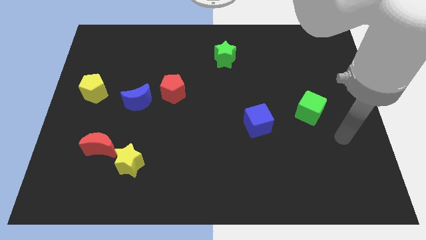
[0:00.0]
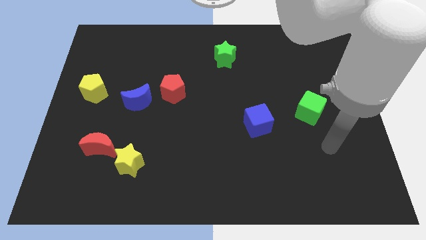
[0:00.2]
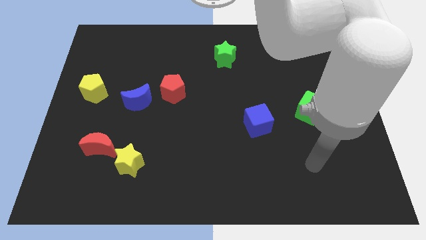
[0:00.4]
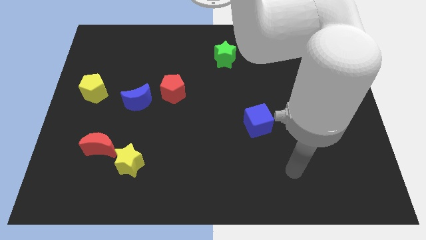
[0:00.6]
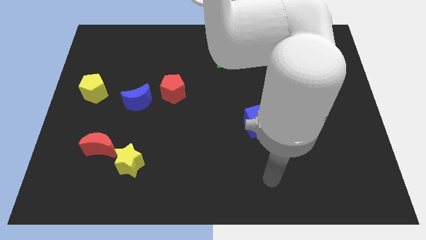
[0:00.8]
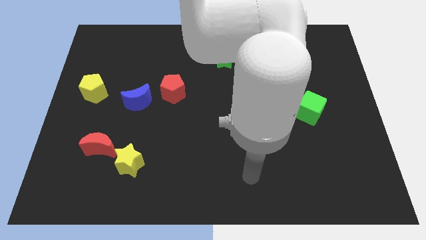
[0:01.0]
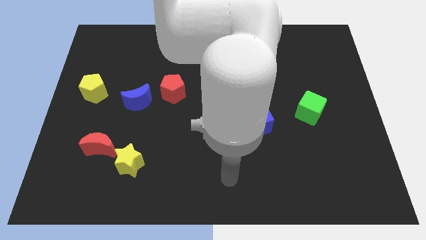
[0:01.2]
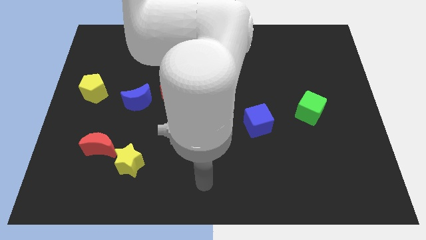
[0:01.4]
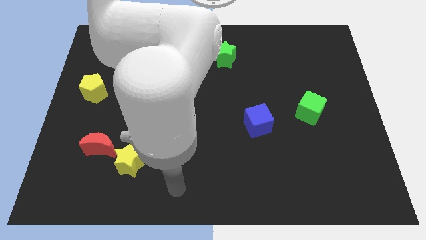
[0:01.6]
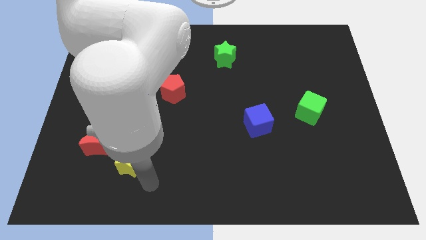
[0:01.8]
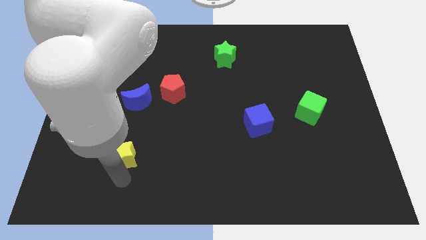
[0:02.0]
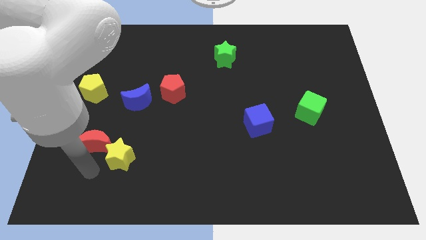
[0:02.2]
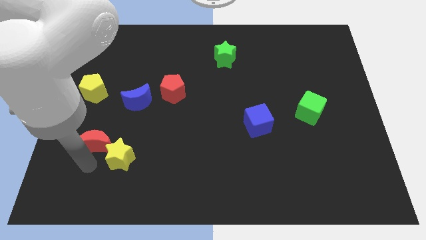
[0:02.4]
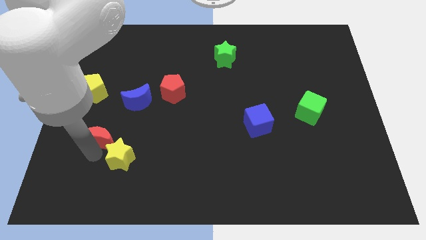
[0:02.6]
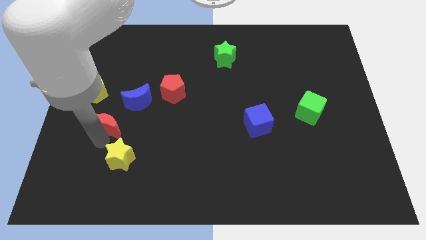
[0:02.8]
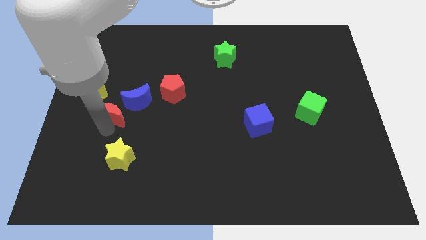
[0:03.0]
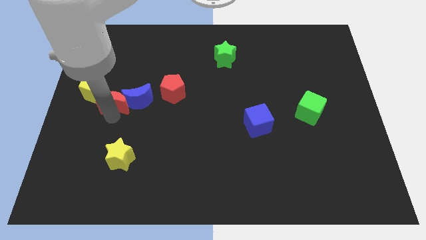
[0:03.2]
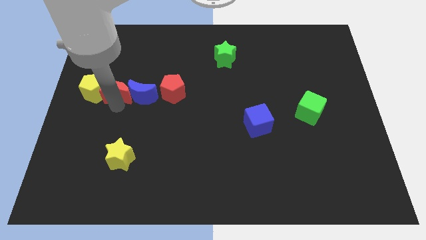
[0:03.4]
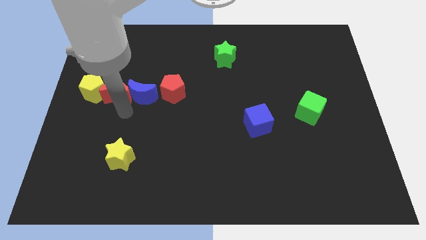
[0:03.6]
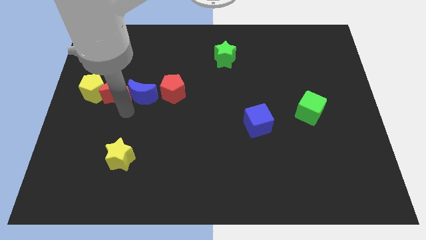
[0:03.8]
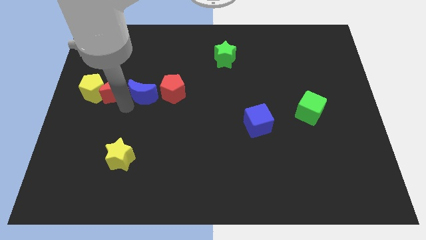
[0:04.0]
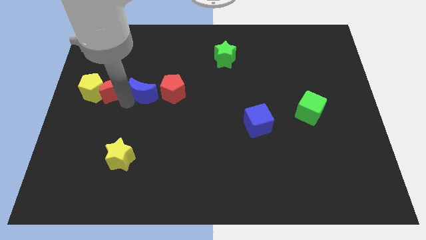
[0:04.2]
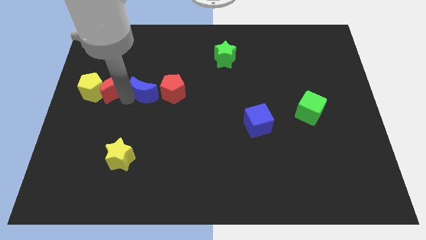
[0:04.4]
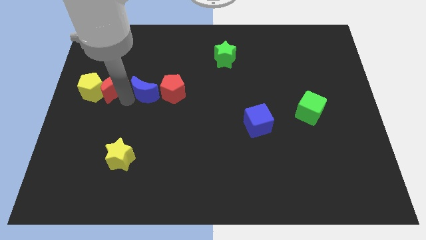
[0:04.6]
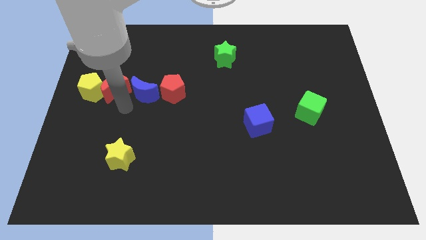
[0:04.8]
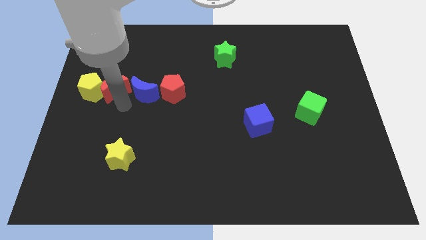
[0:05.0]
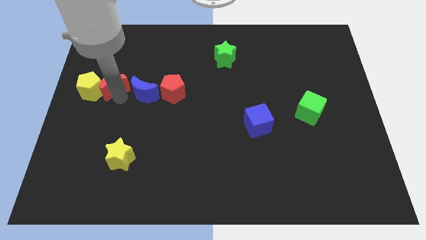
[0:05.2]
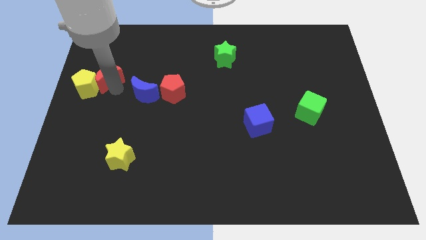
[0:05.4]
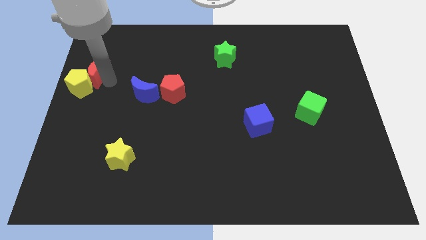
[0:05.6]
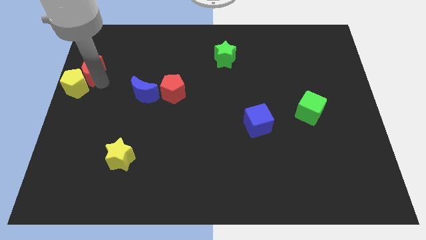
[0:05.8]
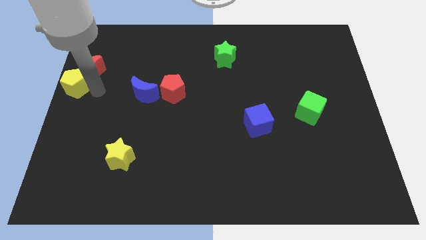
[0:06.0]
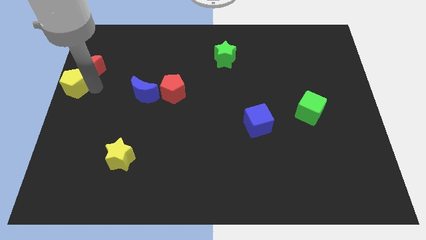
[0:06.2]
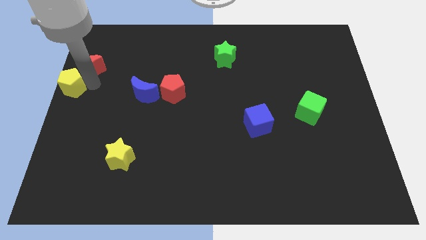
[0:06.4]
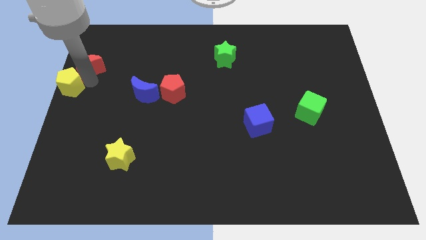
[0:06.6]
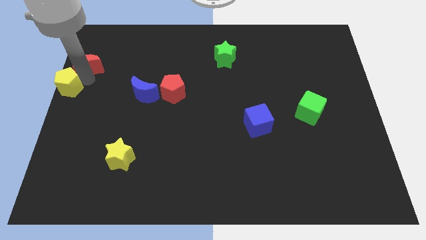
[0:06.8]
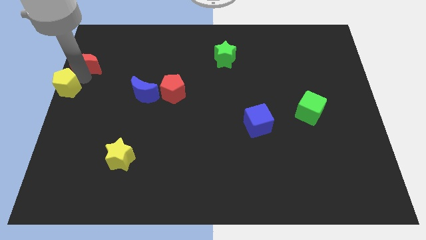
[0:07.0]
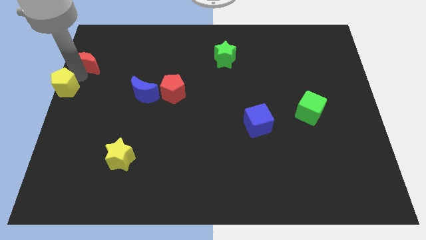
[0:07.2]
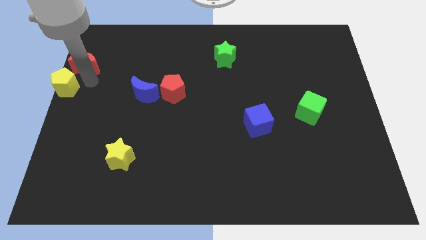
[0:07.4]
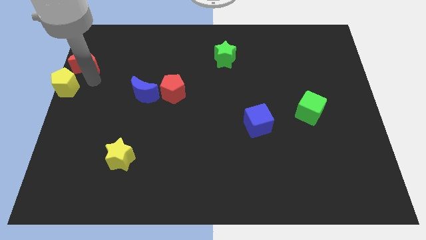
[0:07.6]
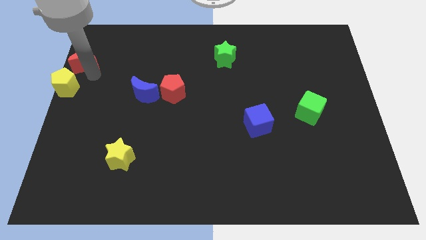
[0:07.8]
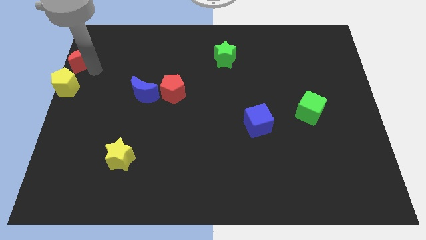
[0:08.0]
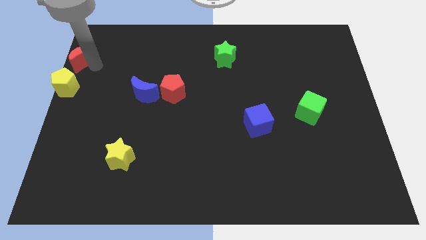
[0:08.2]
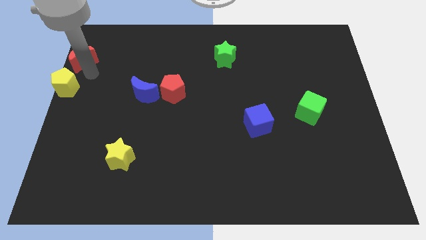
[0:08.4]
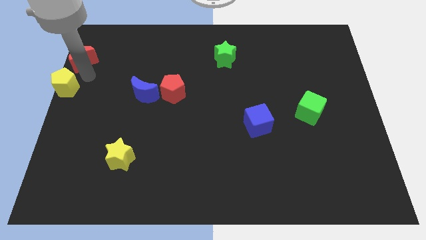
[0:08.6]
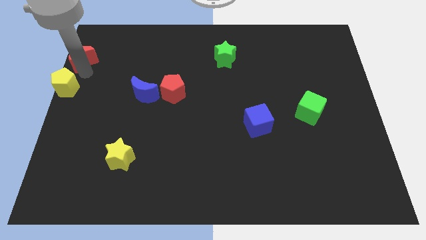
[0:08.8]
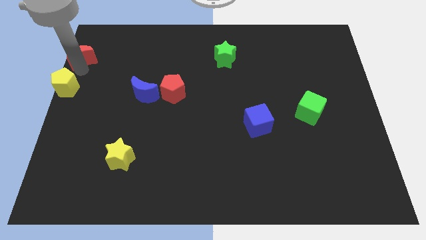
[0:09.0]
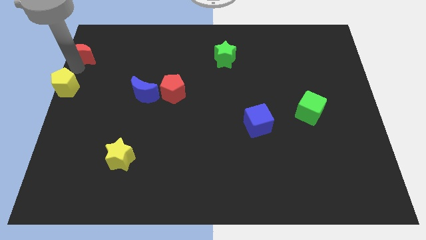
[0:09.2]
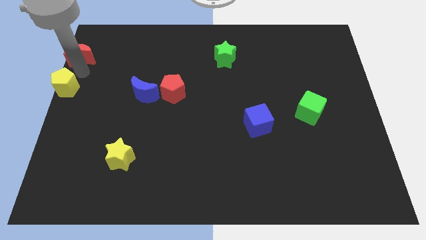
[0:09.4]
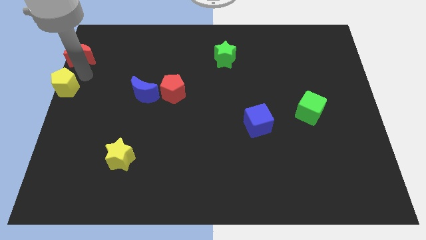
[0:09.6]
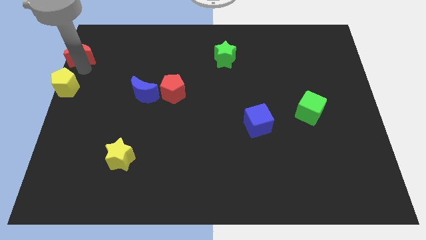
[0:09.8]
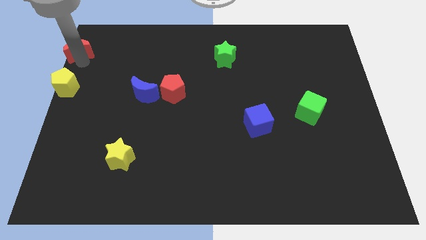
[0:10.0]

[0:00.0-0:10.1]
put the red moon to the top left corner

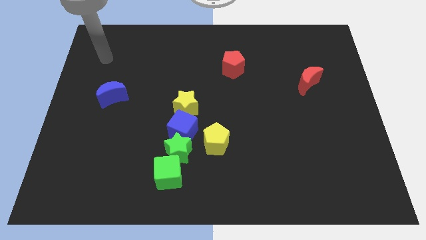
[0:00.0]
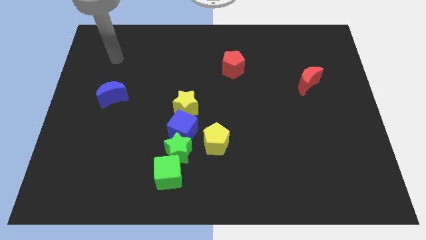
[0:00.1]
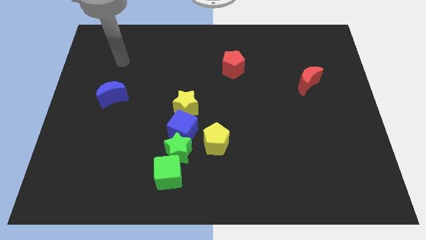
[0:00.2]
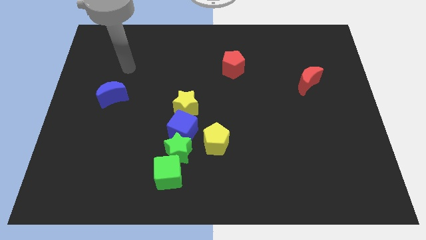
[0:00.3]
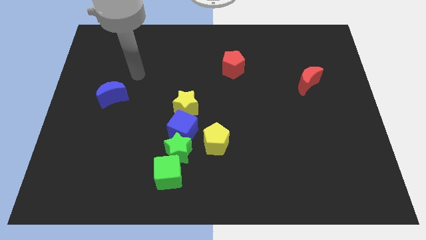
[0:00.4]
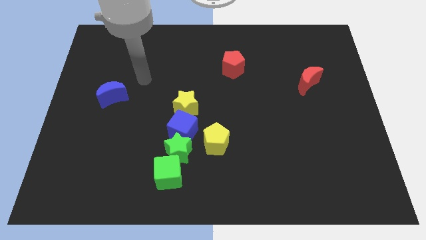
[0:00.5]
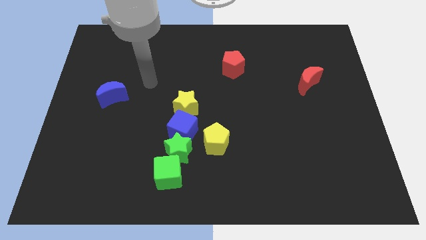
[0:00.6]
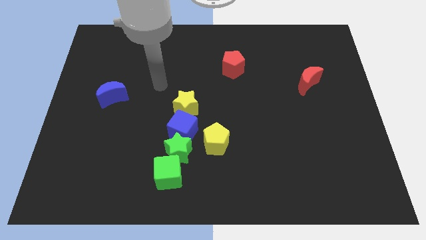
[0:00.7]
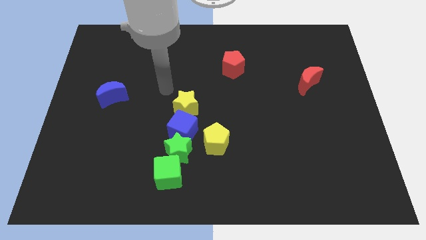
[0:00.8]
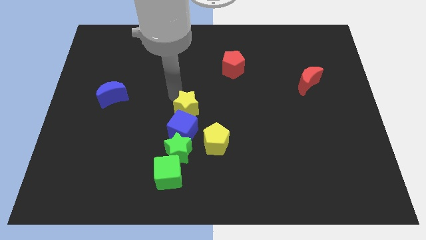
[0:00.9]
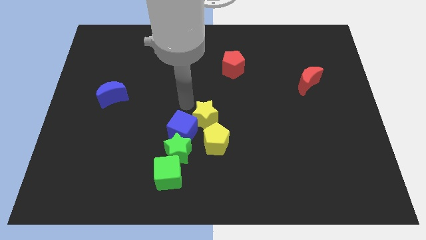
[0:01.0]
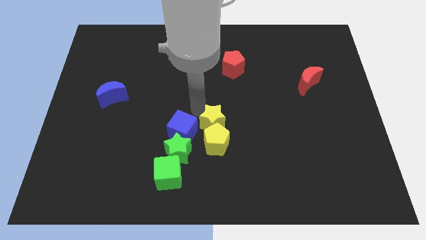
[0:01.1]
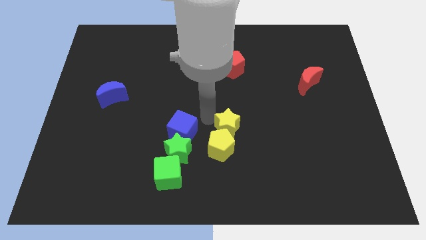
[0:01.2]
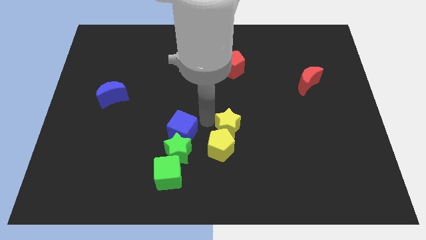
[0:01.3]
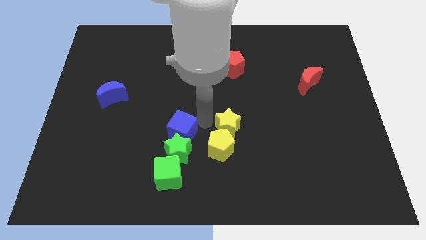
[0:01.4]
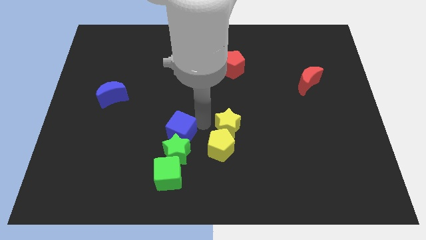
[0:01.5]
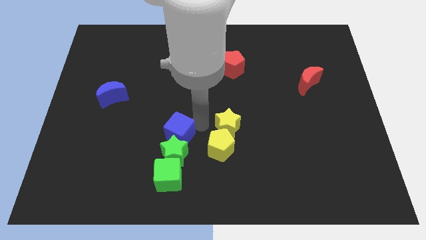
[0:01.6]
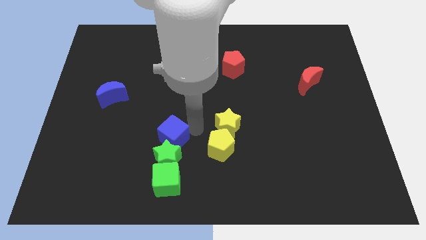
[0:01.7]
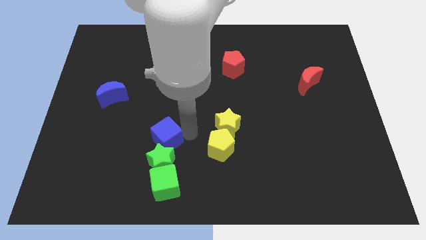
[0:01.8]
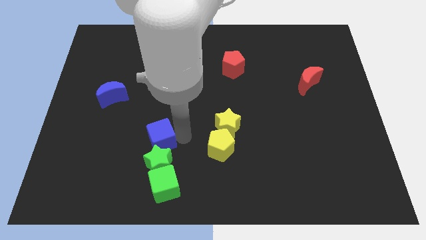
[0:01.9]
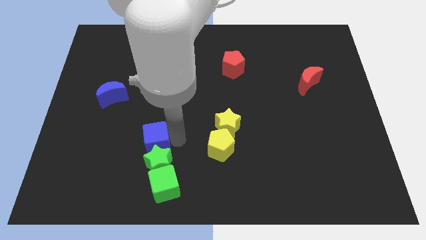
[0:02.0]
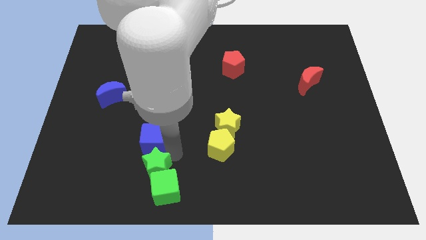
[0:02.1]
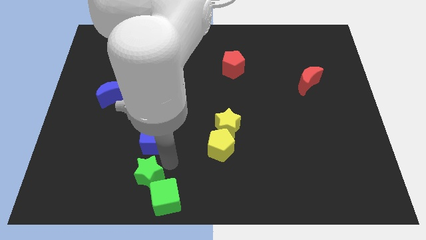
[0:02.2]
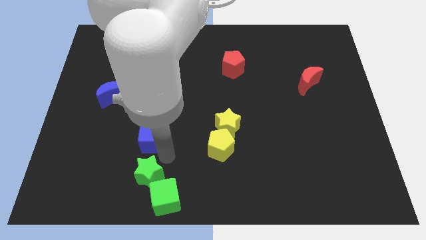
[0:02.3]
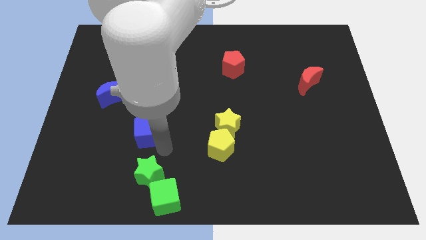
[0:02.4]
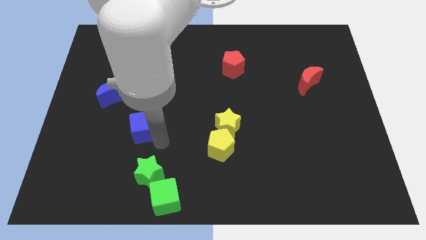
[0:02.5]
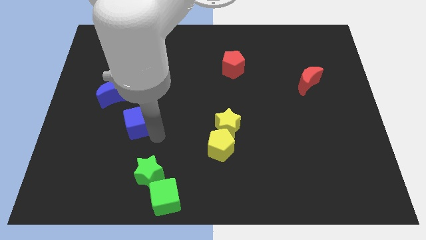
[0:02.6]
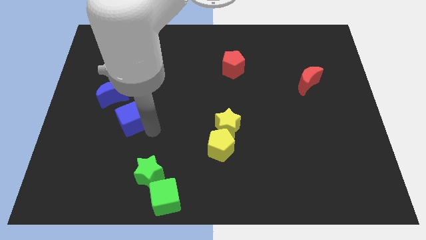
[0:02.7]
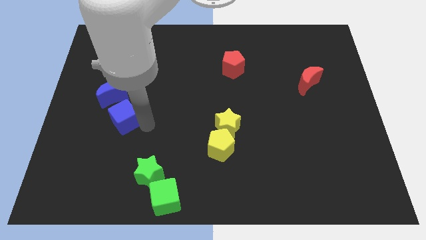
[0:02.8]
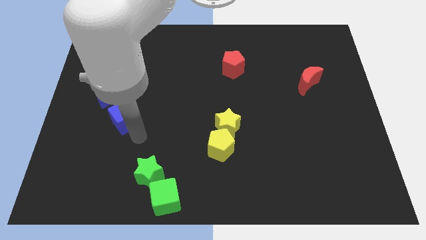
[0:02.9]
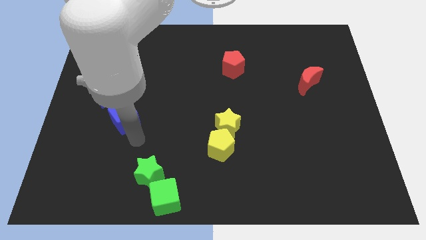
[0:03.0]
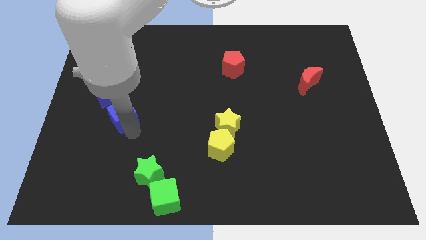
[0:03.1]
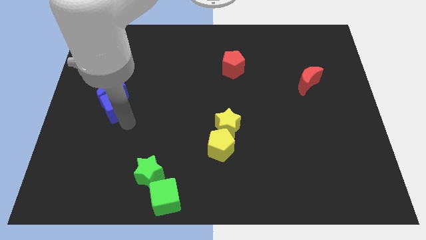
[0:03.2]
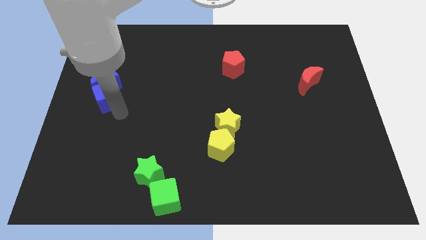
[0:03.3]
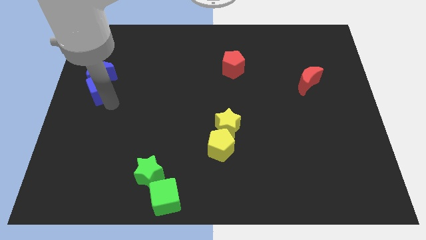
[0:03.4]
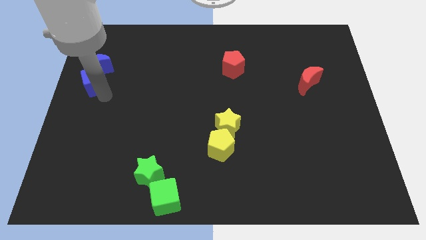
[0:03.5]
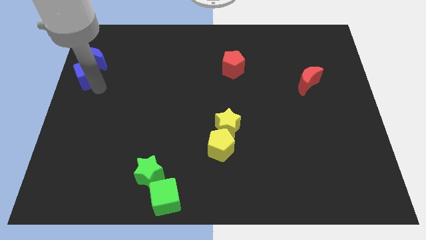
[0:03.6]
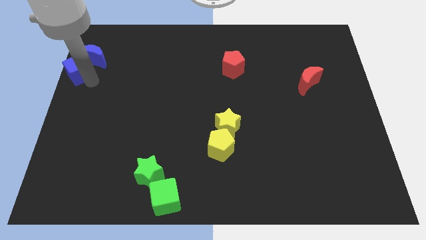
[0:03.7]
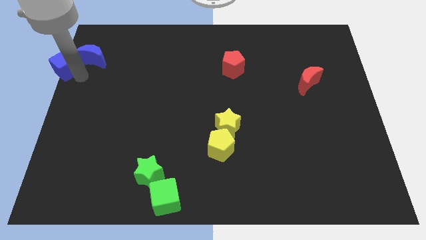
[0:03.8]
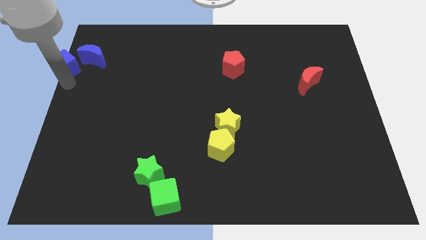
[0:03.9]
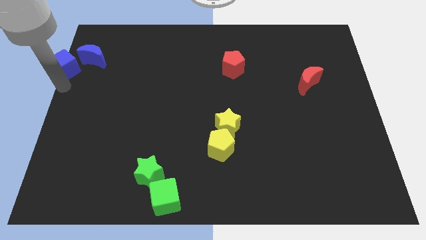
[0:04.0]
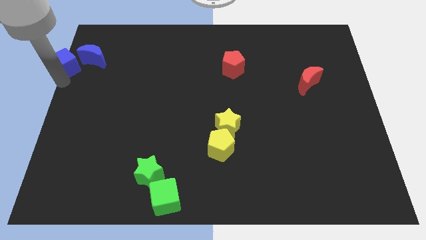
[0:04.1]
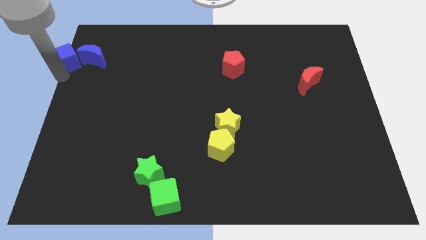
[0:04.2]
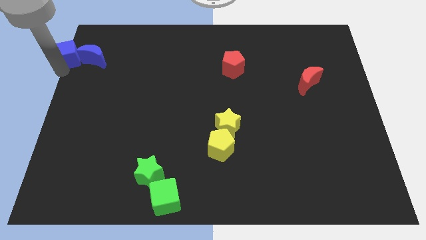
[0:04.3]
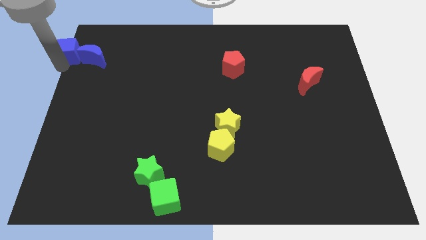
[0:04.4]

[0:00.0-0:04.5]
push the blue cube to the top left of the board
